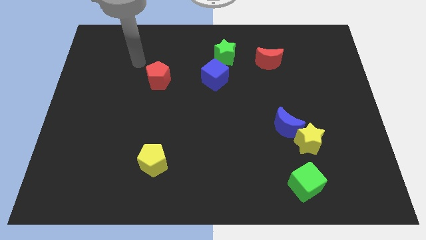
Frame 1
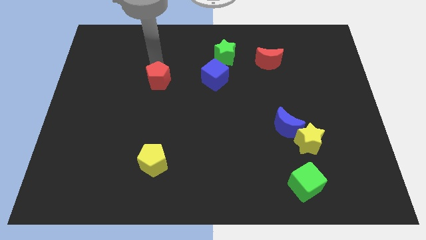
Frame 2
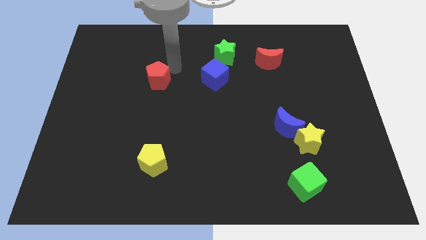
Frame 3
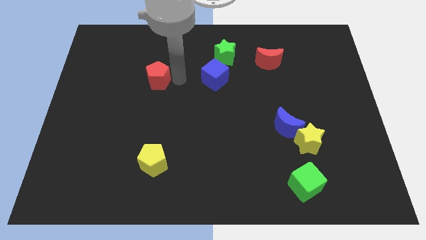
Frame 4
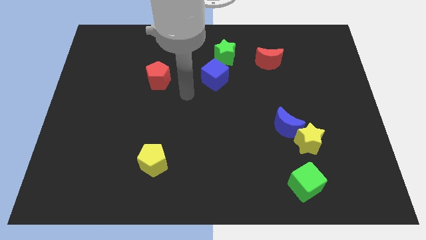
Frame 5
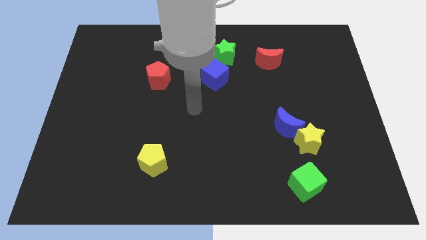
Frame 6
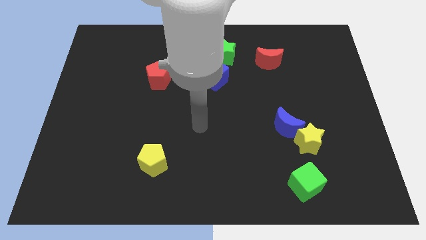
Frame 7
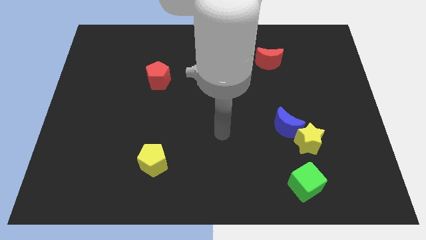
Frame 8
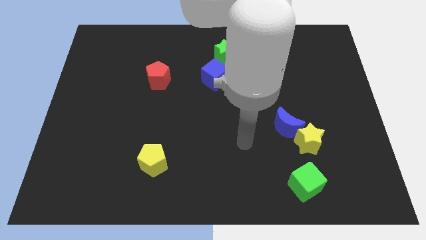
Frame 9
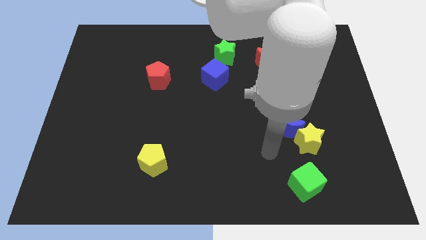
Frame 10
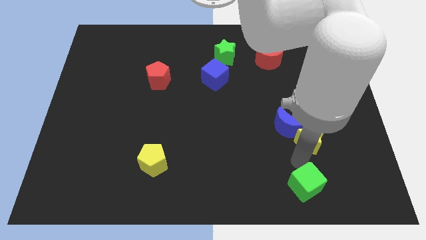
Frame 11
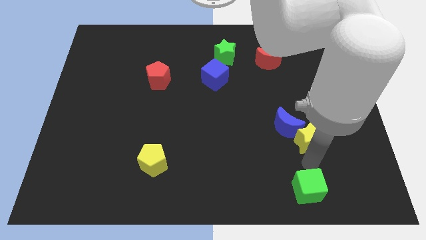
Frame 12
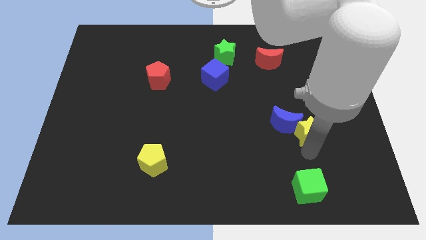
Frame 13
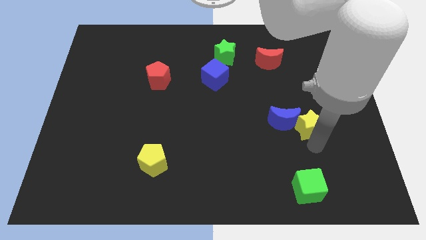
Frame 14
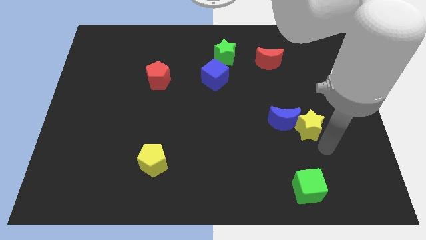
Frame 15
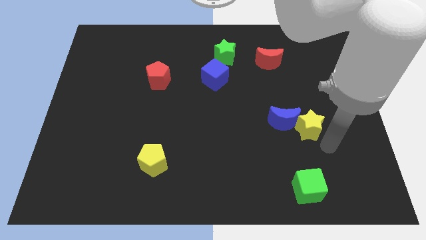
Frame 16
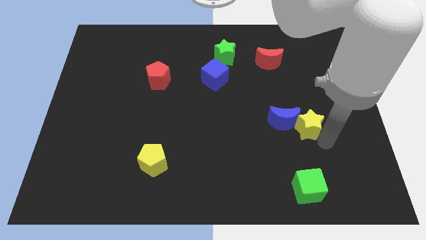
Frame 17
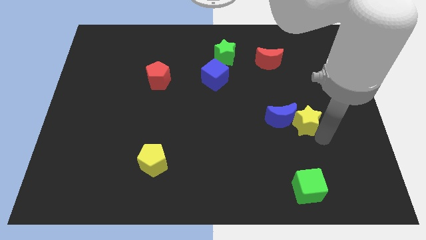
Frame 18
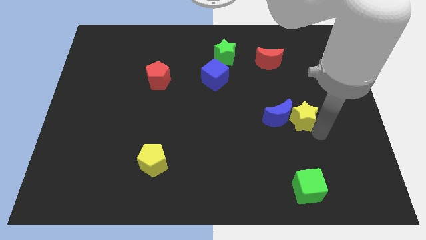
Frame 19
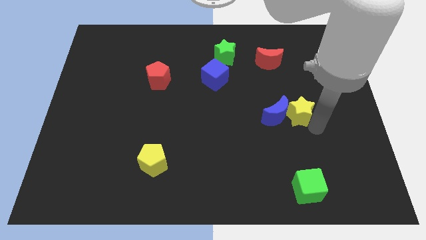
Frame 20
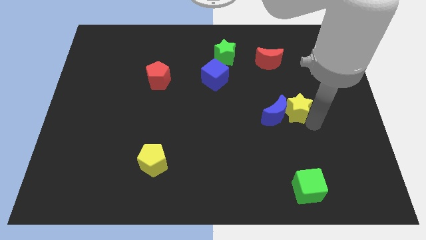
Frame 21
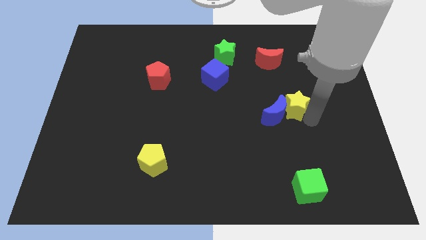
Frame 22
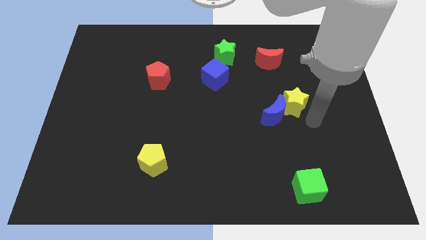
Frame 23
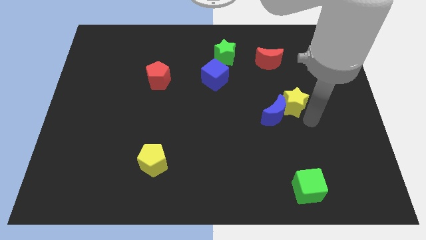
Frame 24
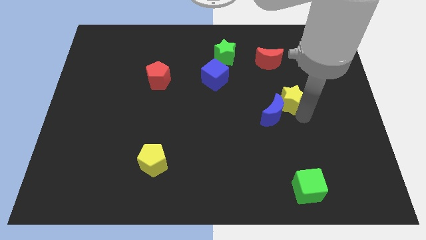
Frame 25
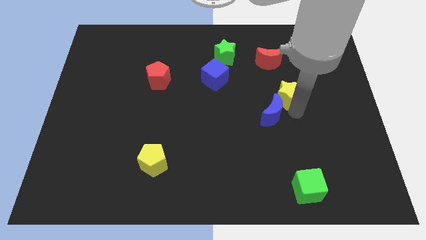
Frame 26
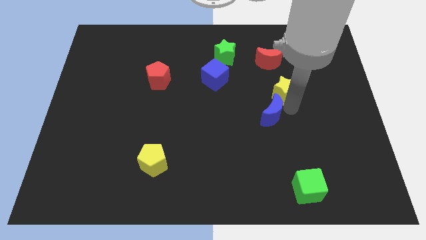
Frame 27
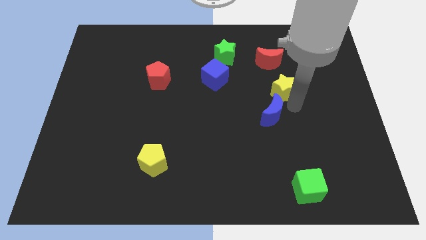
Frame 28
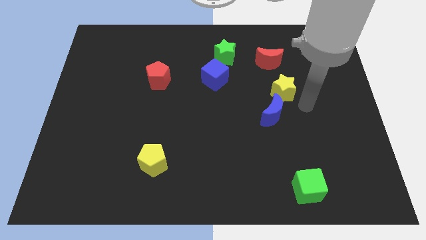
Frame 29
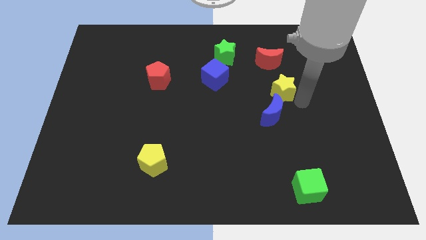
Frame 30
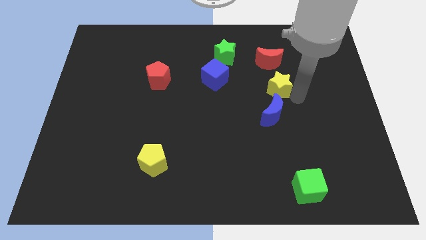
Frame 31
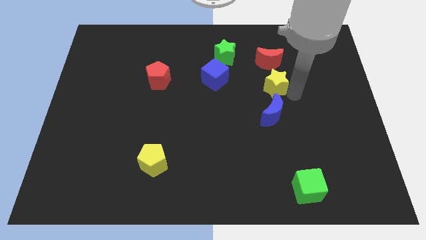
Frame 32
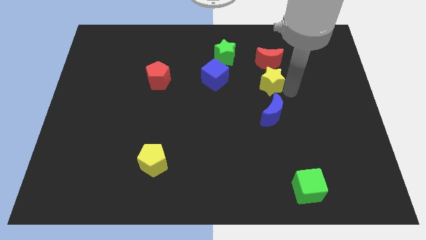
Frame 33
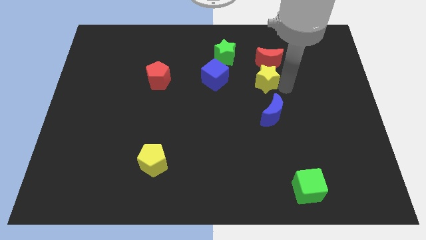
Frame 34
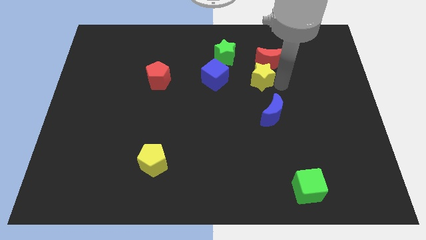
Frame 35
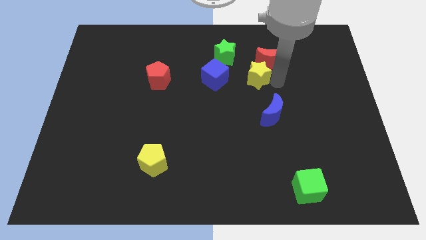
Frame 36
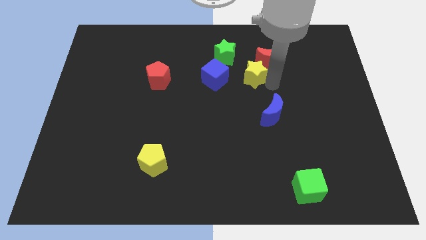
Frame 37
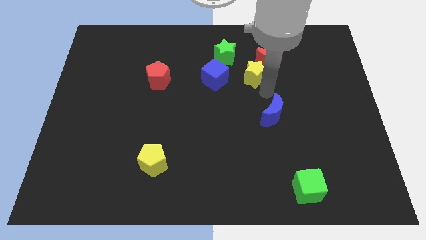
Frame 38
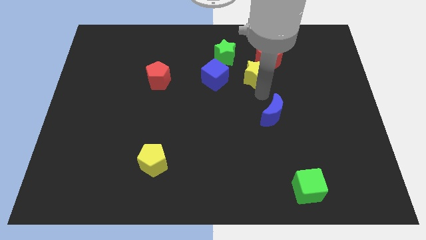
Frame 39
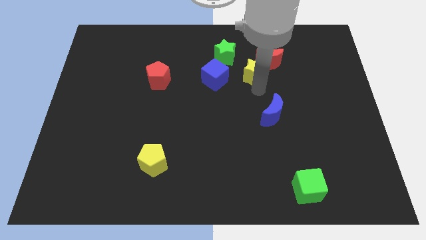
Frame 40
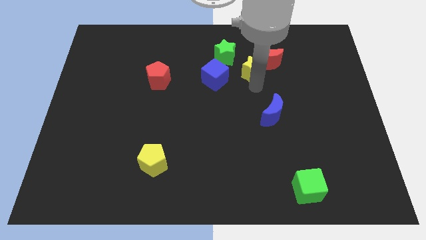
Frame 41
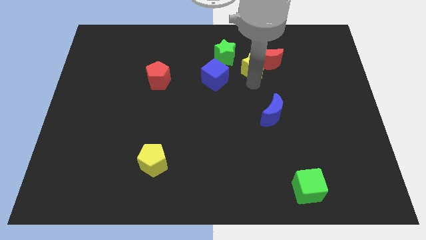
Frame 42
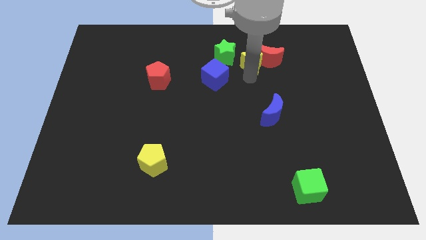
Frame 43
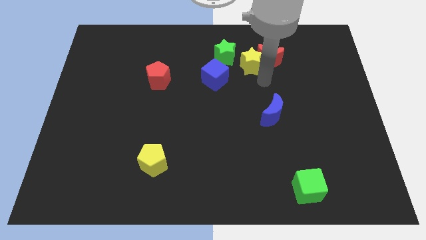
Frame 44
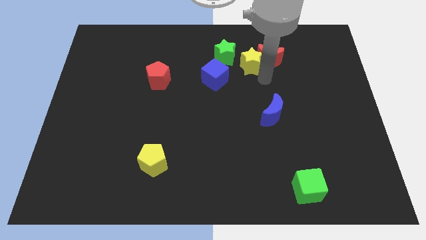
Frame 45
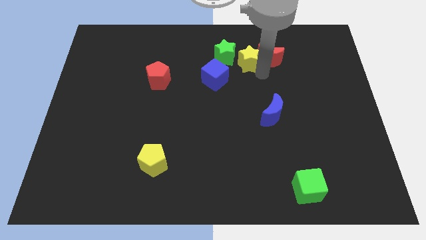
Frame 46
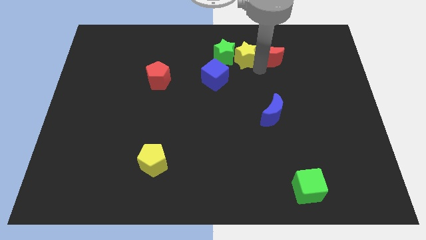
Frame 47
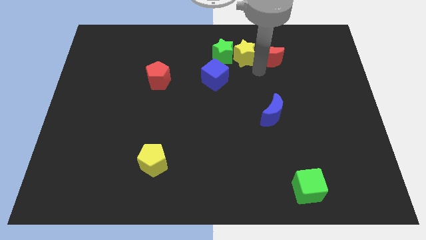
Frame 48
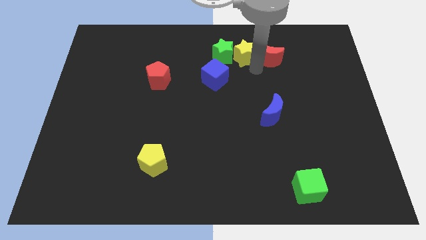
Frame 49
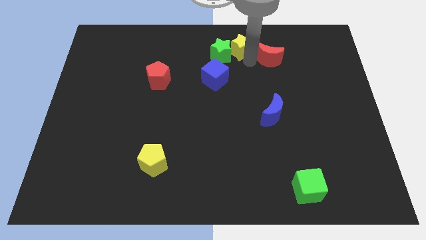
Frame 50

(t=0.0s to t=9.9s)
move the yellow star to the top side

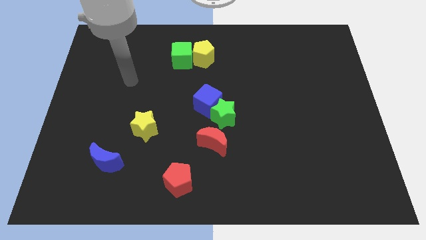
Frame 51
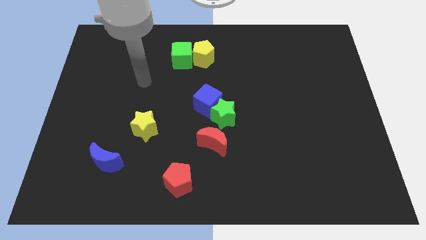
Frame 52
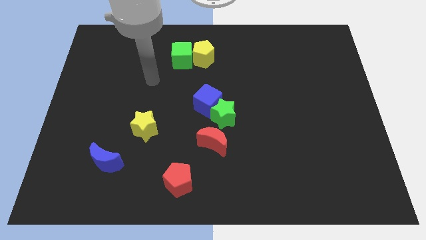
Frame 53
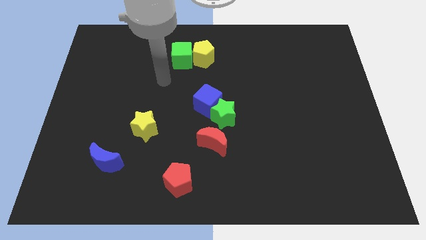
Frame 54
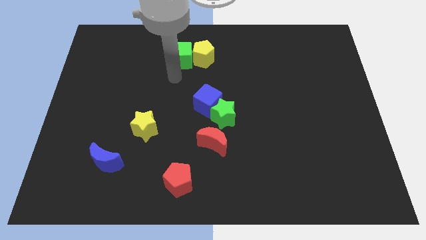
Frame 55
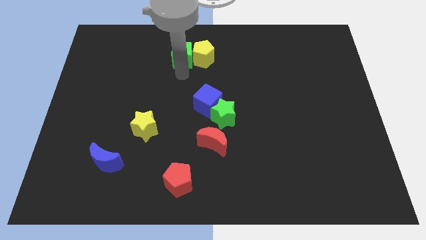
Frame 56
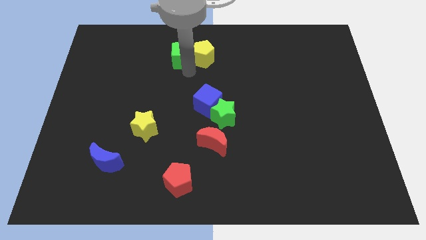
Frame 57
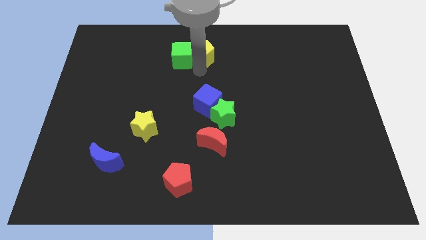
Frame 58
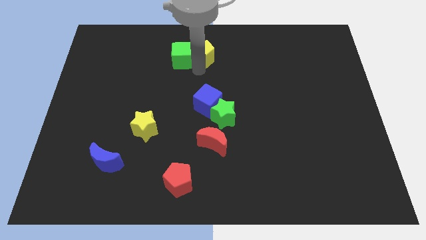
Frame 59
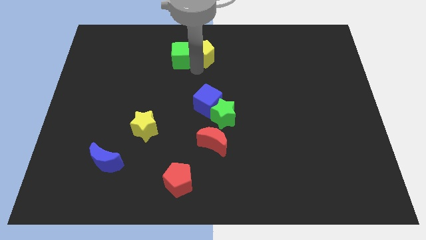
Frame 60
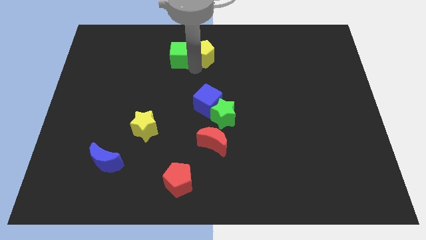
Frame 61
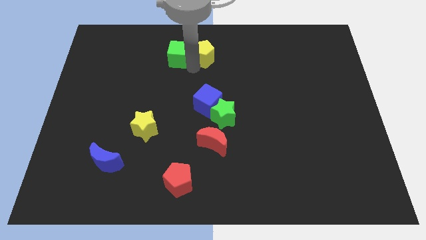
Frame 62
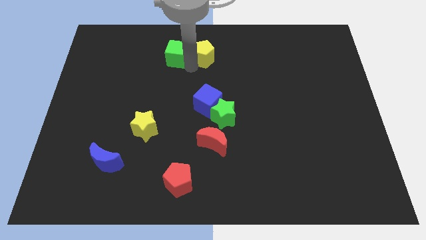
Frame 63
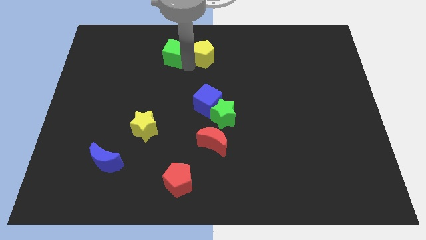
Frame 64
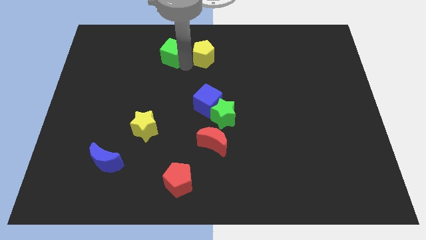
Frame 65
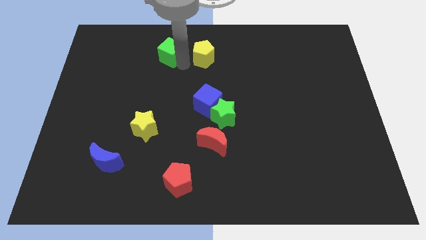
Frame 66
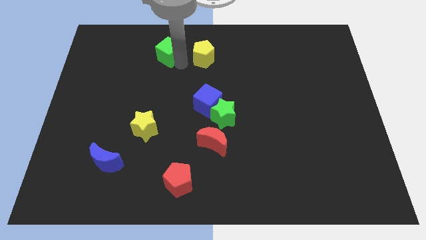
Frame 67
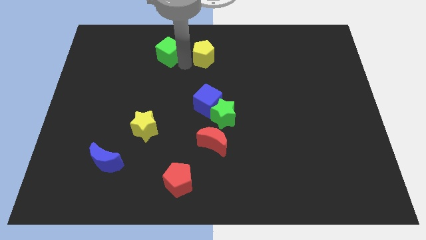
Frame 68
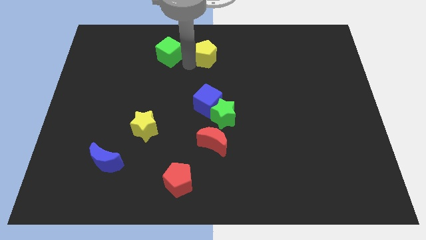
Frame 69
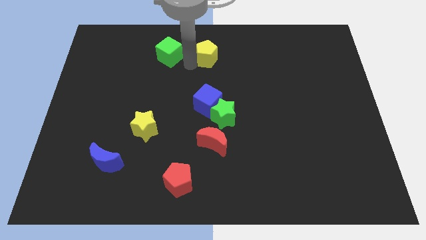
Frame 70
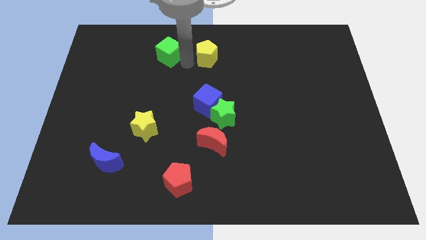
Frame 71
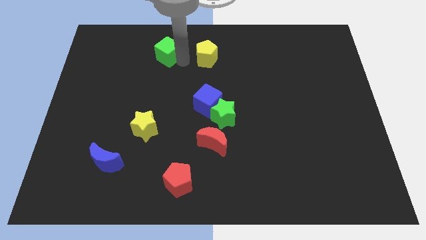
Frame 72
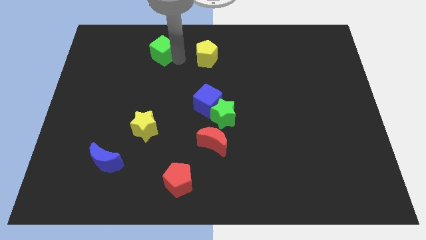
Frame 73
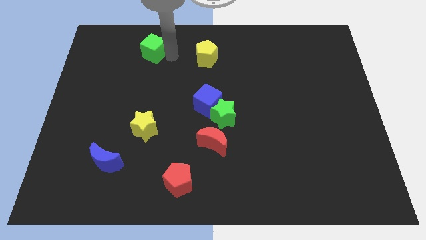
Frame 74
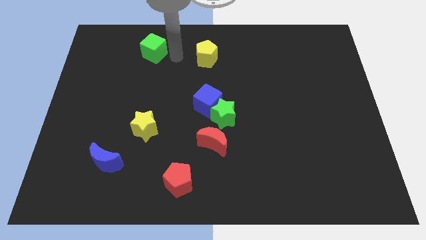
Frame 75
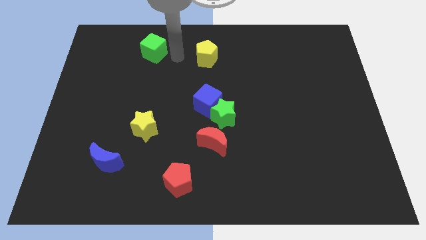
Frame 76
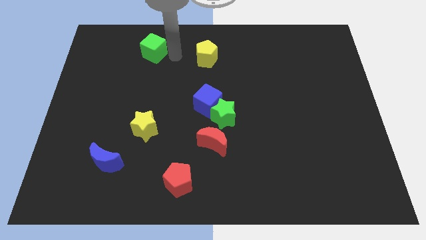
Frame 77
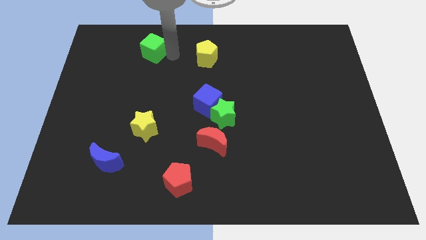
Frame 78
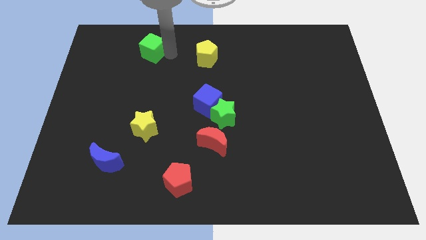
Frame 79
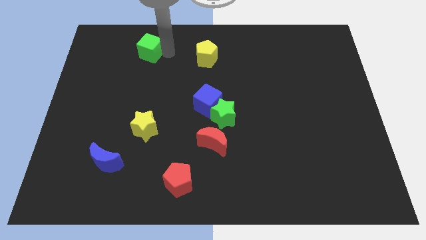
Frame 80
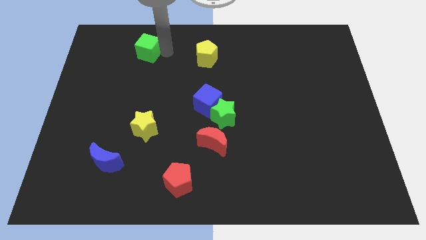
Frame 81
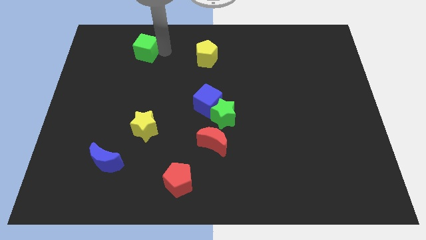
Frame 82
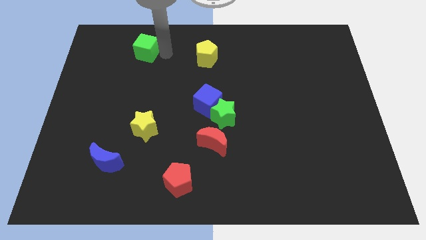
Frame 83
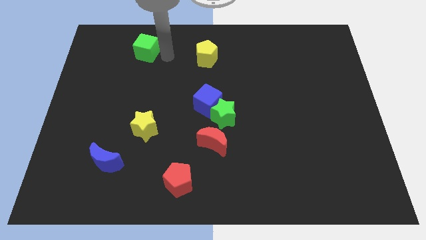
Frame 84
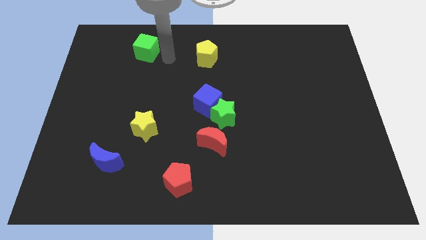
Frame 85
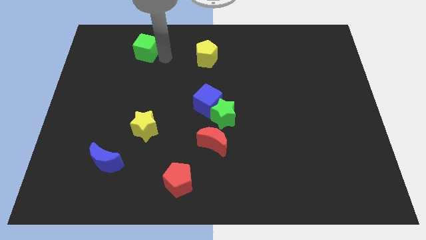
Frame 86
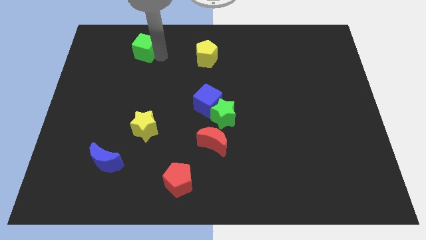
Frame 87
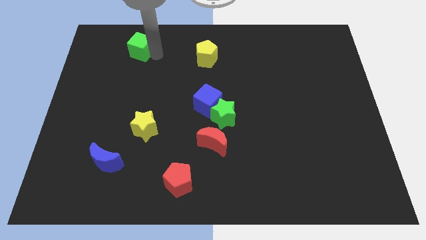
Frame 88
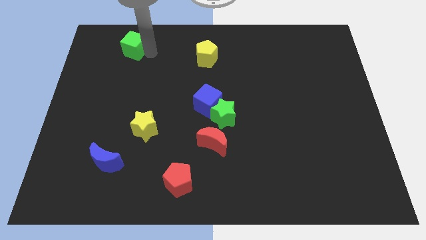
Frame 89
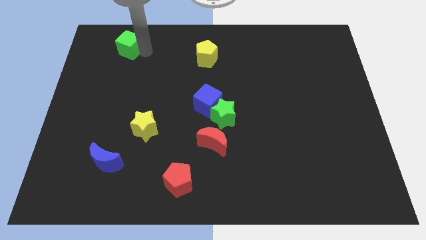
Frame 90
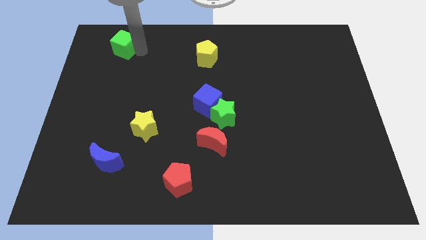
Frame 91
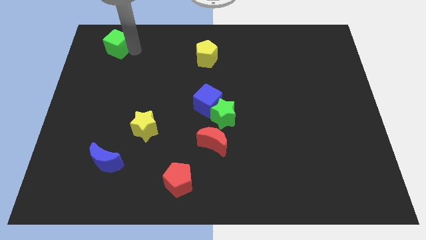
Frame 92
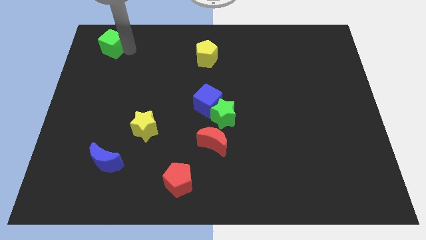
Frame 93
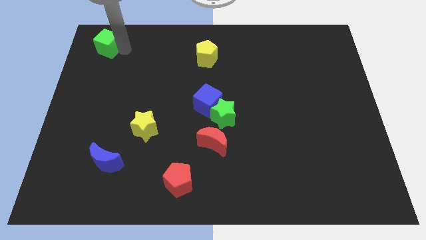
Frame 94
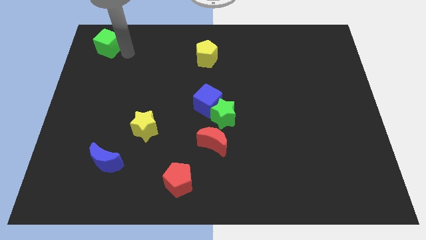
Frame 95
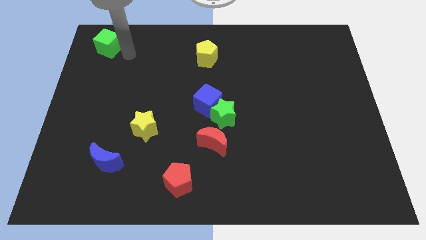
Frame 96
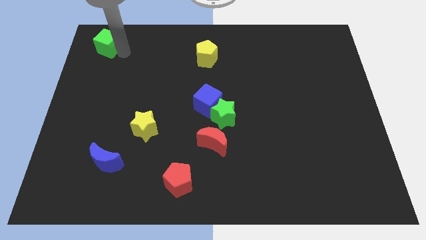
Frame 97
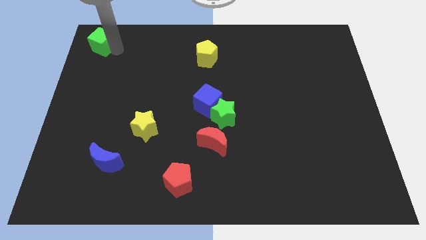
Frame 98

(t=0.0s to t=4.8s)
move the green cube to the top left corner
